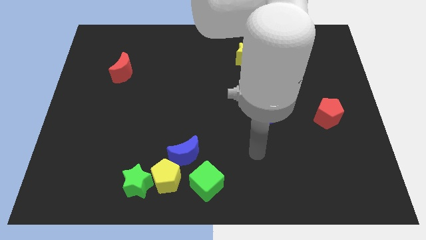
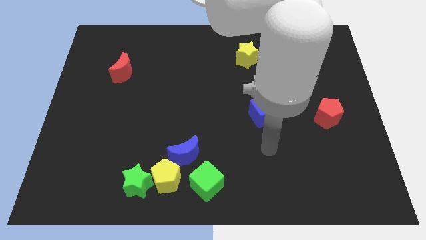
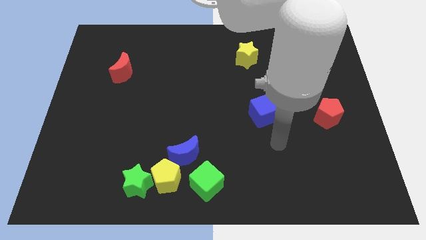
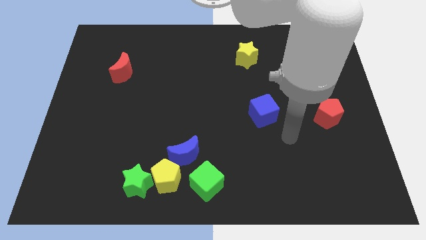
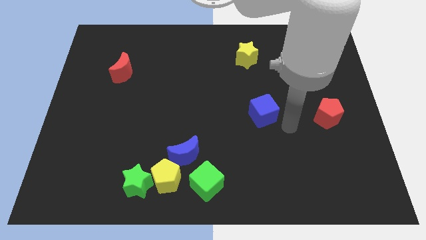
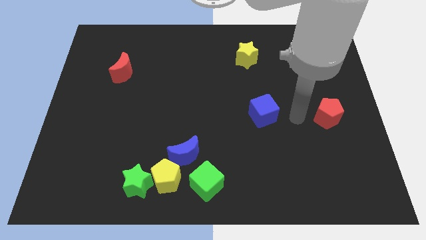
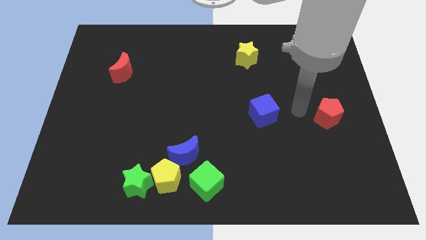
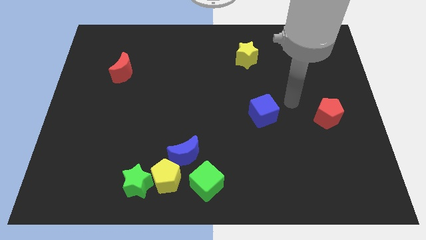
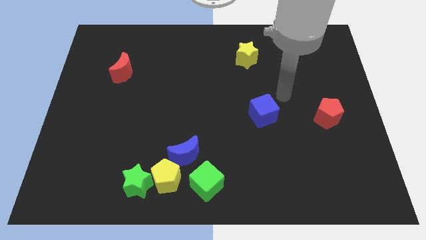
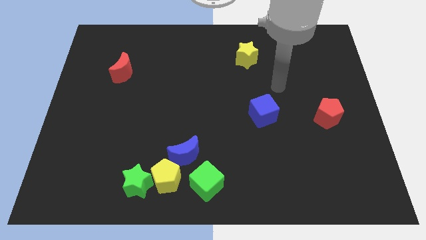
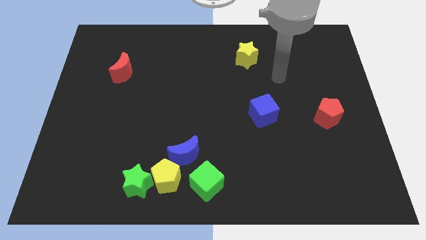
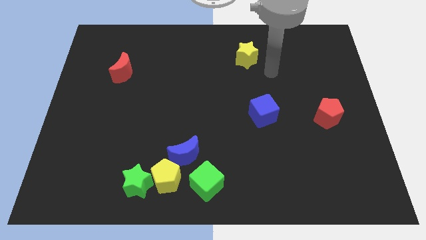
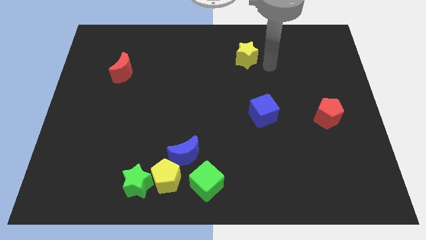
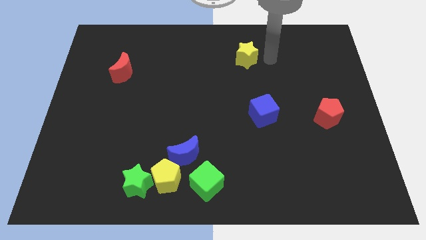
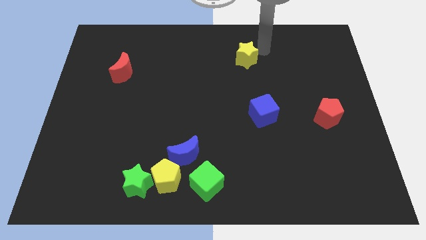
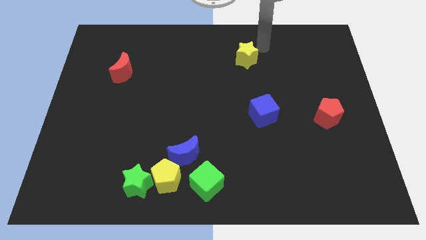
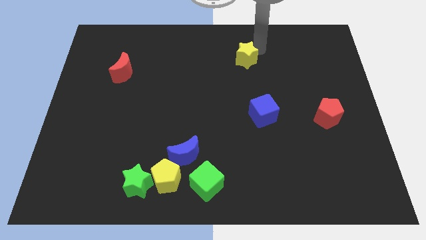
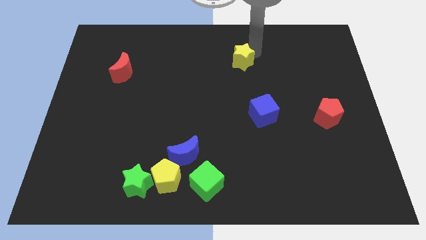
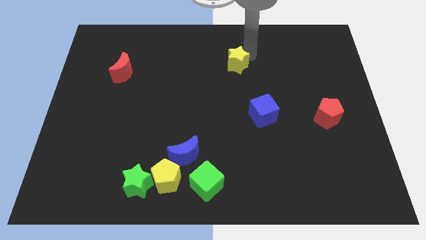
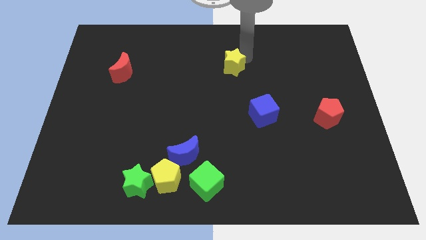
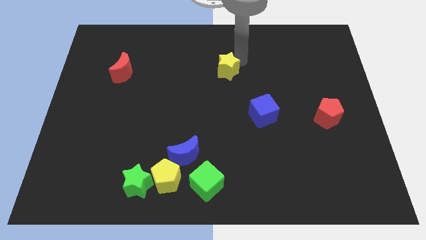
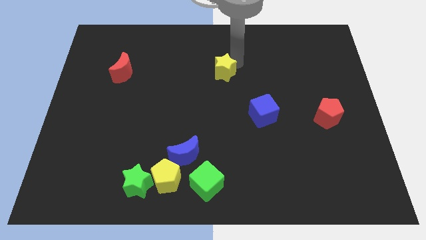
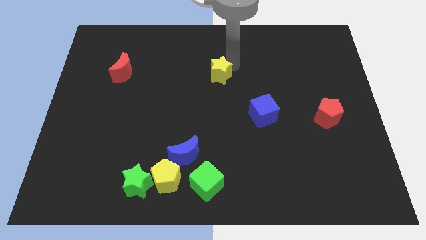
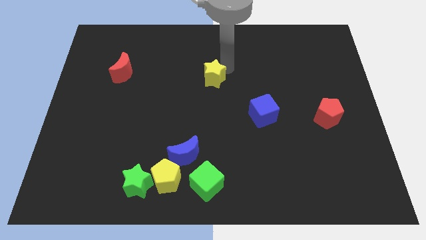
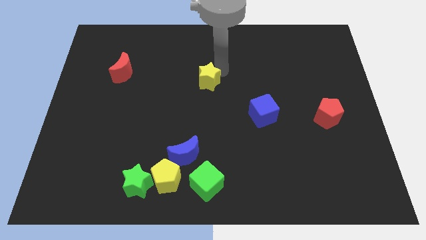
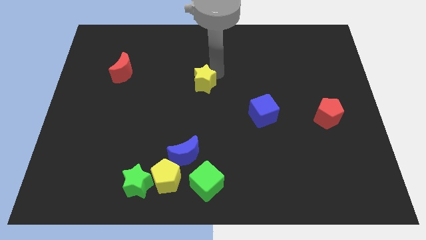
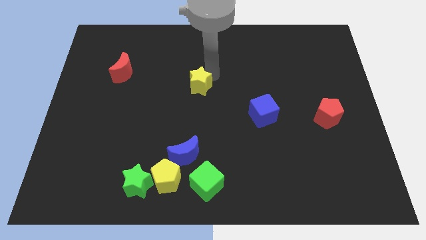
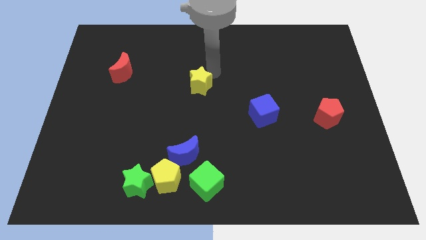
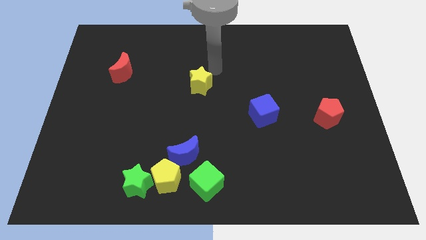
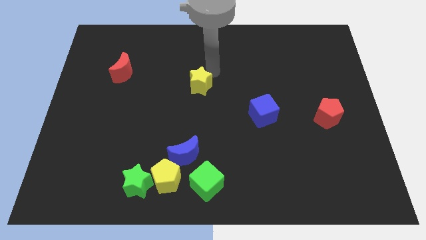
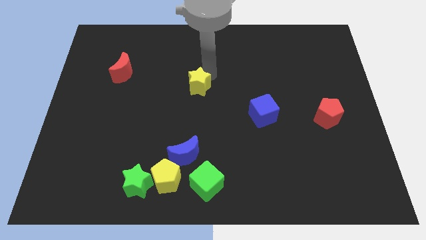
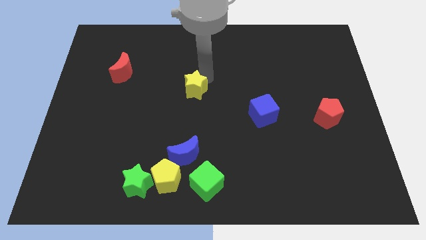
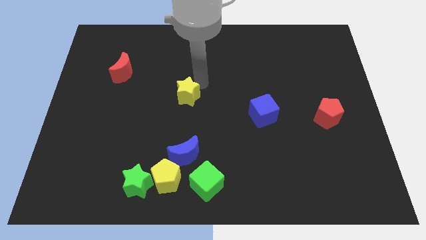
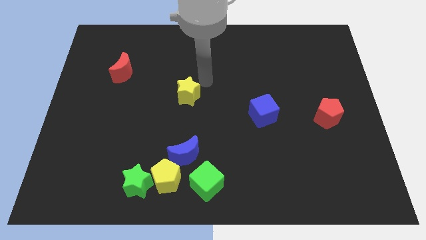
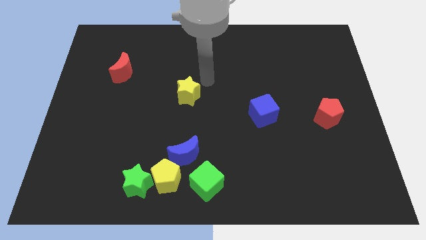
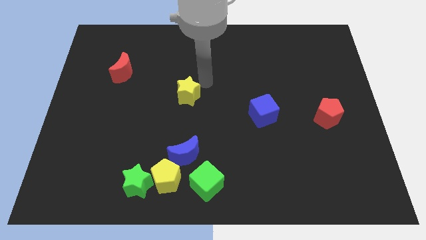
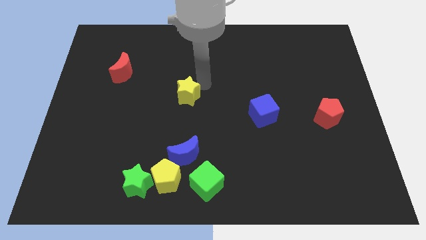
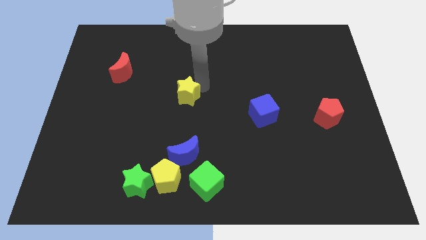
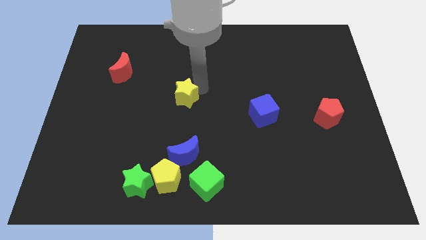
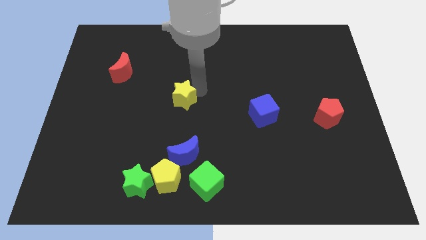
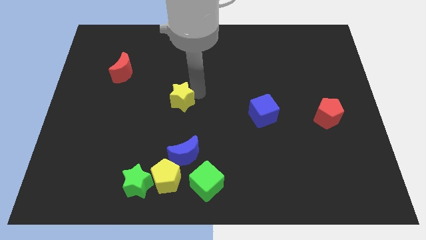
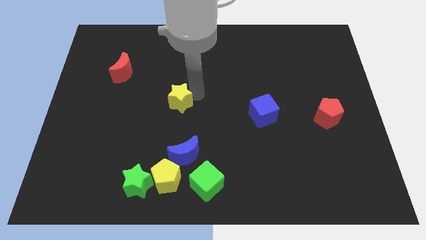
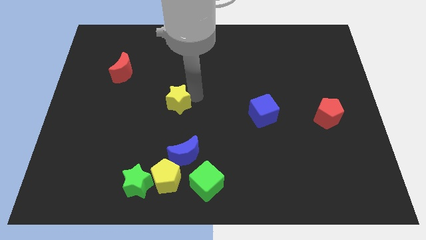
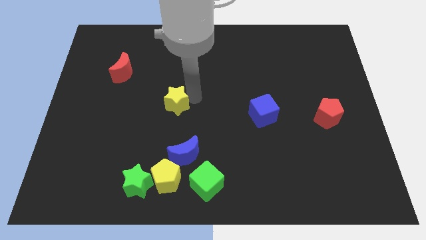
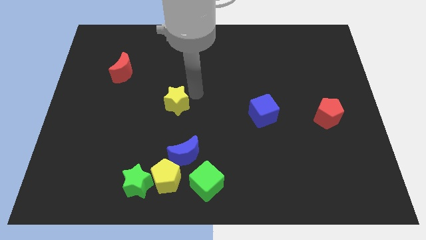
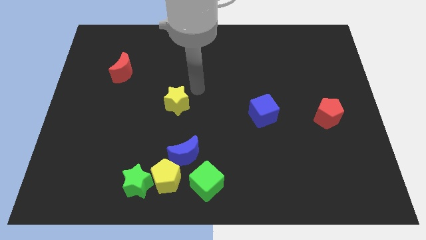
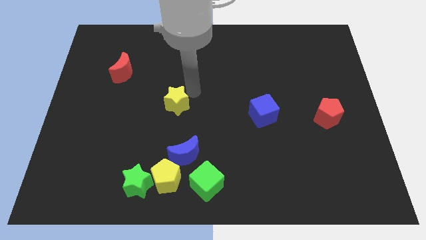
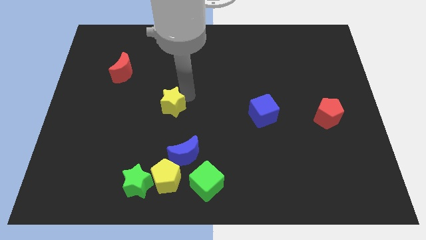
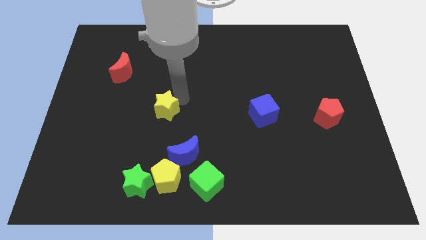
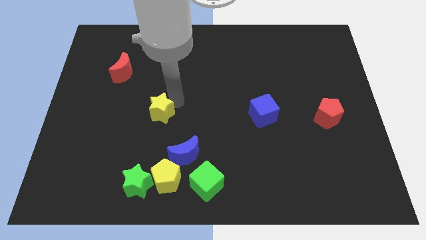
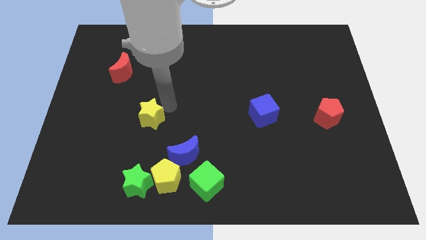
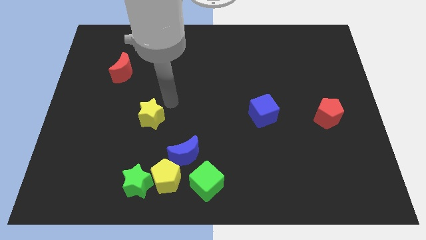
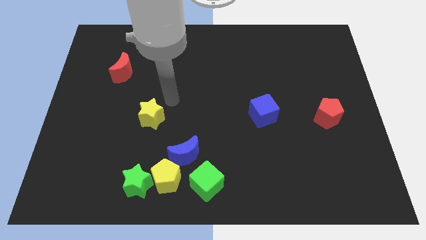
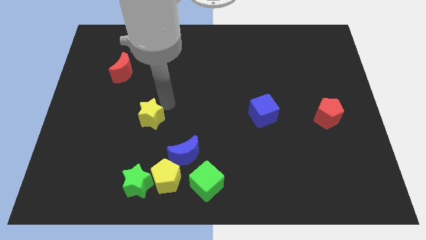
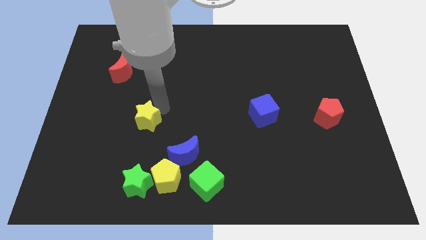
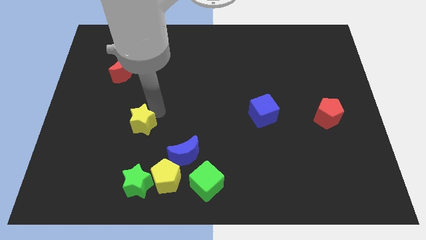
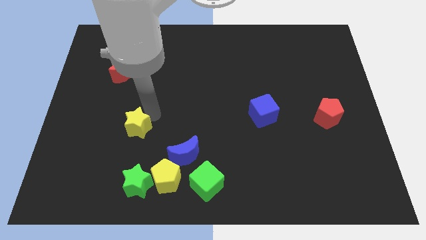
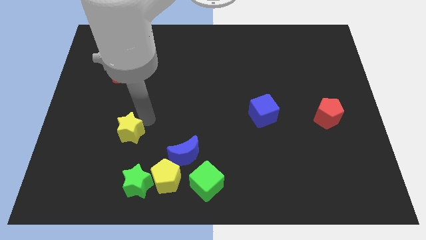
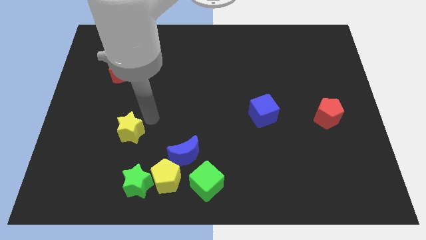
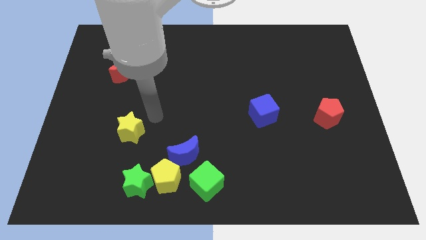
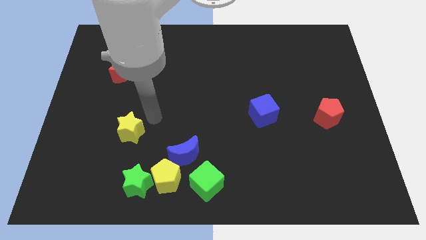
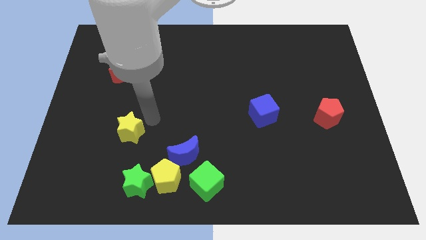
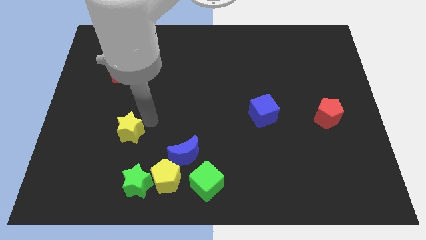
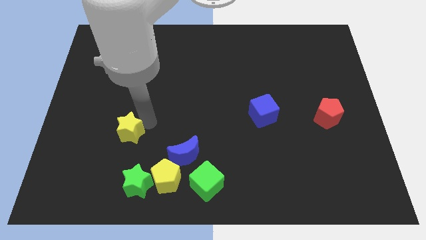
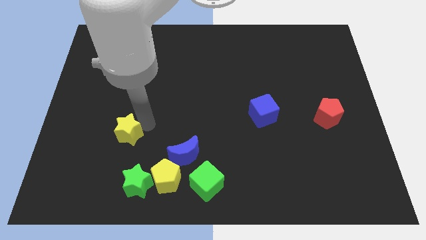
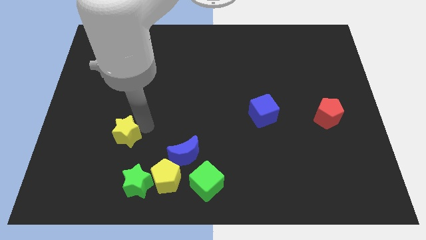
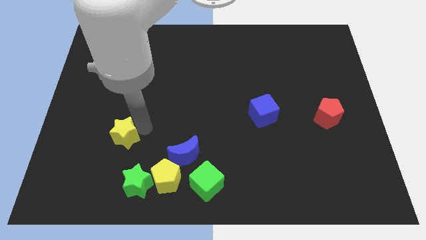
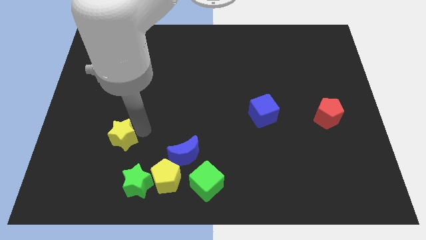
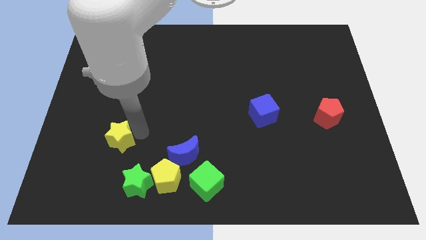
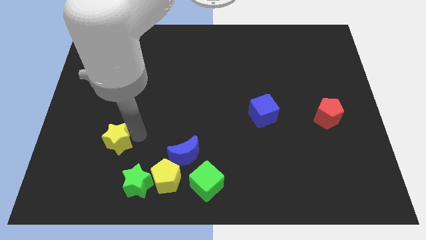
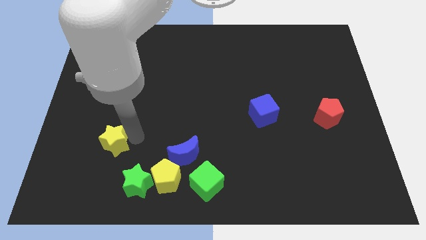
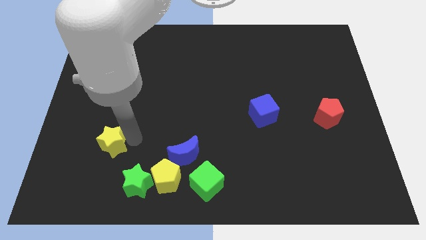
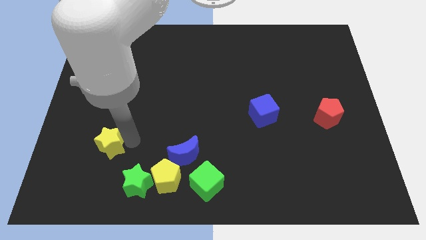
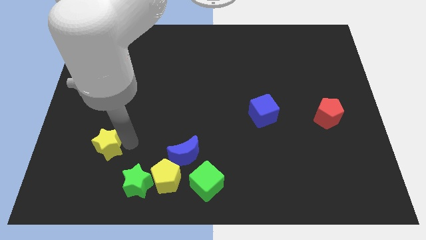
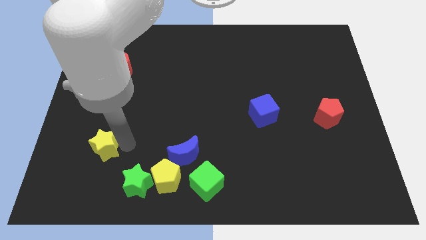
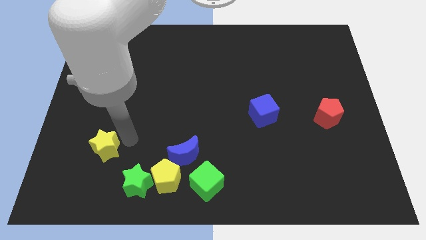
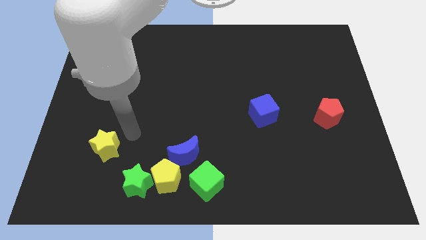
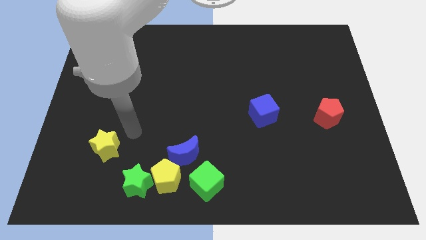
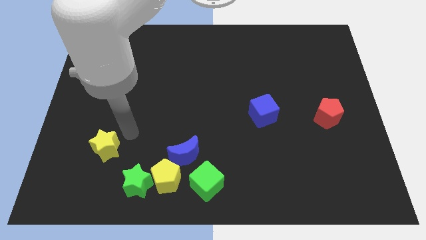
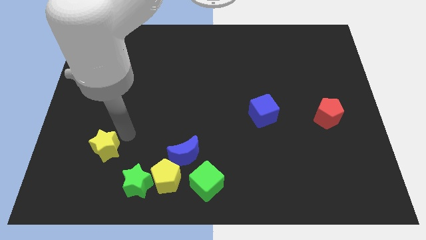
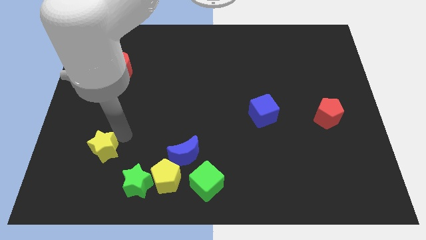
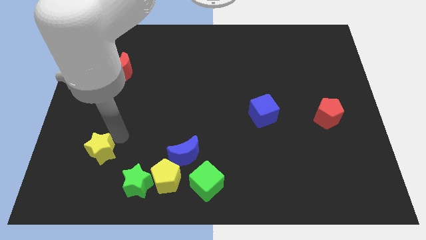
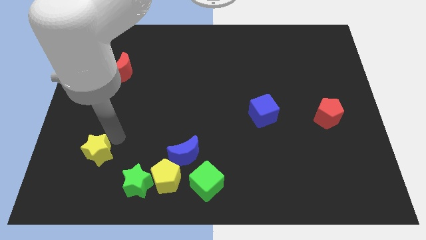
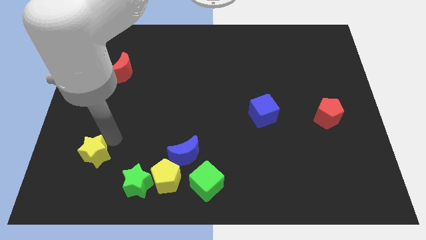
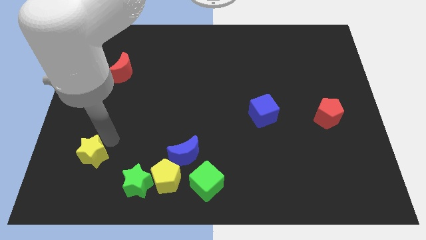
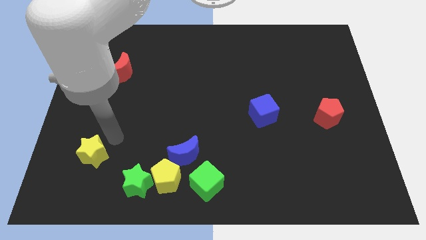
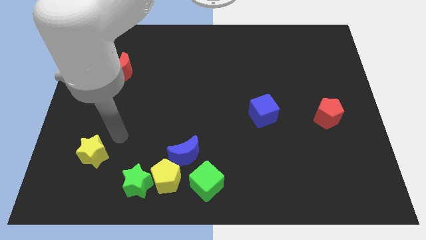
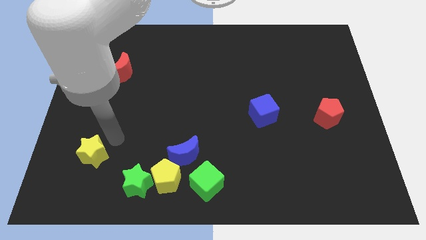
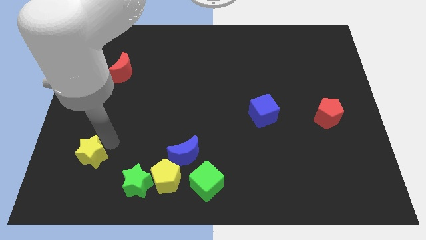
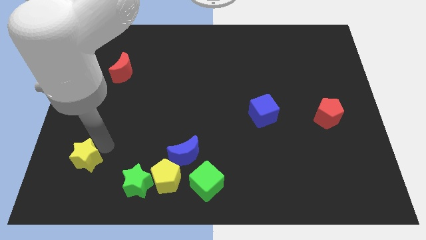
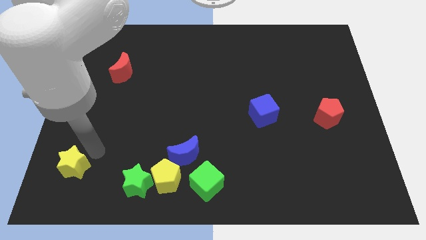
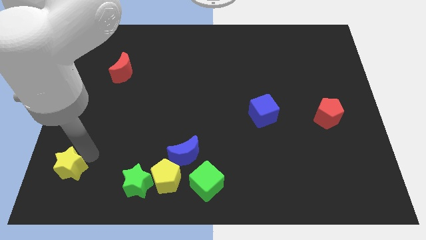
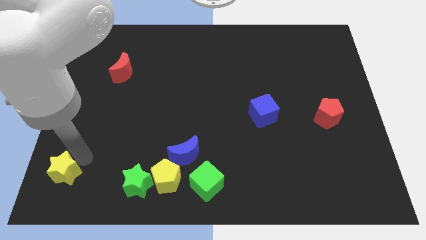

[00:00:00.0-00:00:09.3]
push the yellow star to the bottom left
